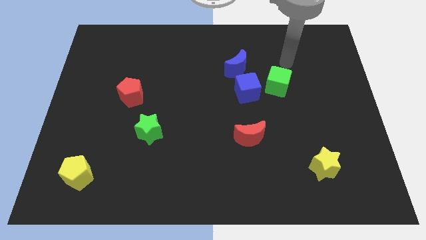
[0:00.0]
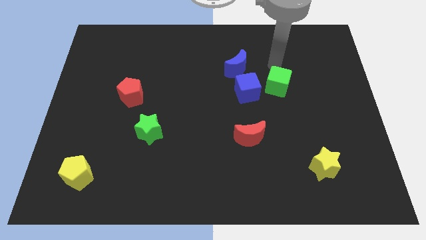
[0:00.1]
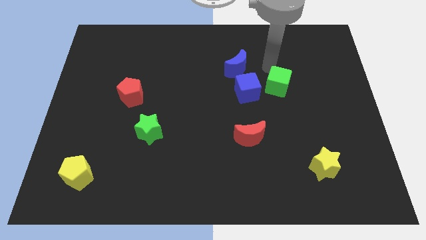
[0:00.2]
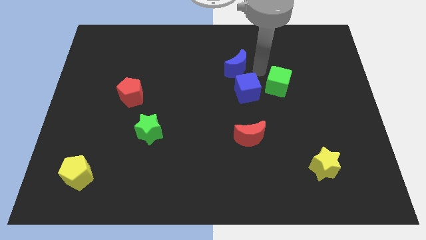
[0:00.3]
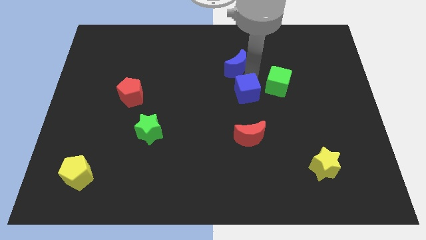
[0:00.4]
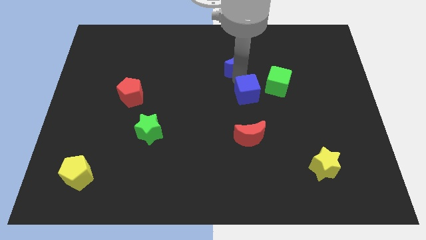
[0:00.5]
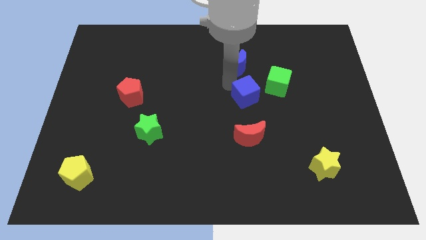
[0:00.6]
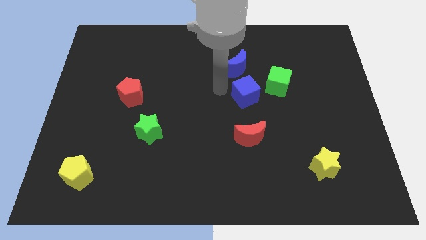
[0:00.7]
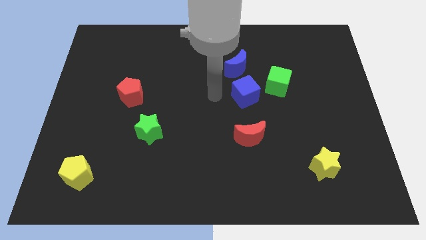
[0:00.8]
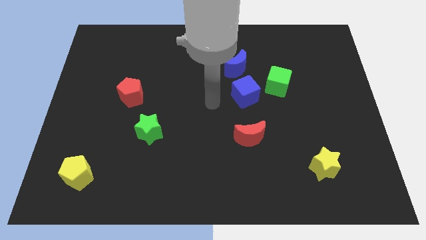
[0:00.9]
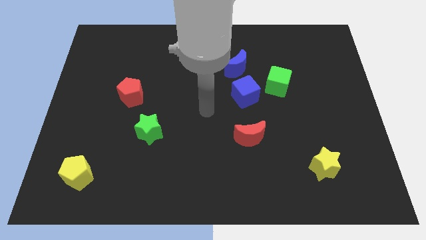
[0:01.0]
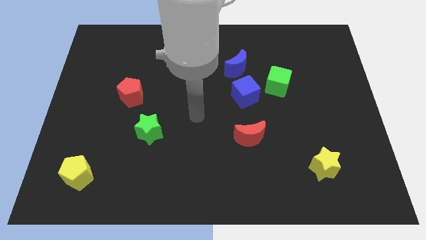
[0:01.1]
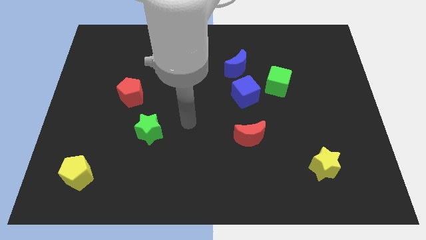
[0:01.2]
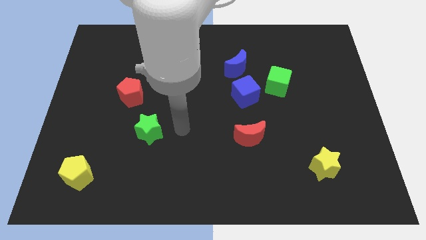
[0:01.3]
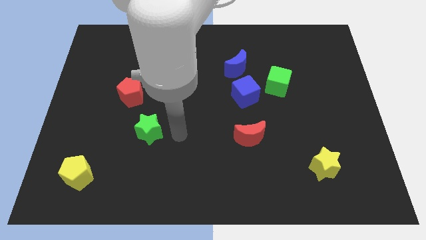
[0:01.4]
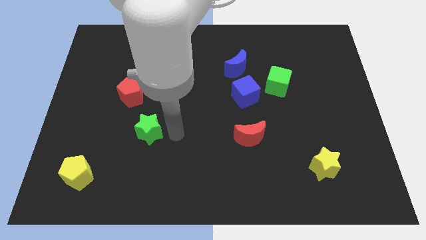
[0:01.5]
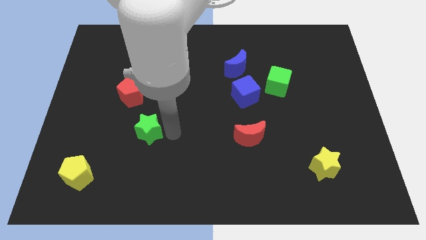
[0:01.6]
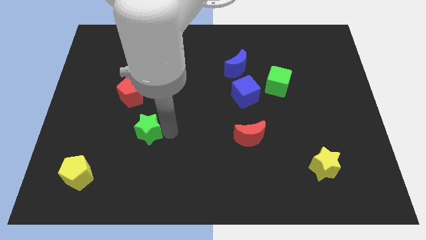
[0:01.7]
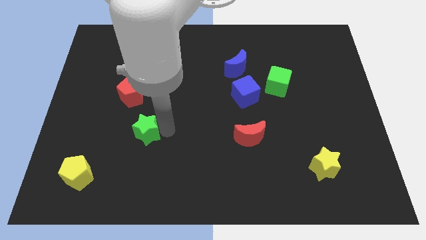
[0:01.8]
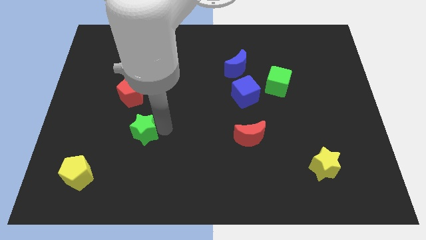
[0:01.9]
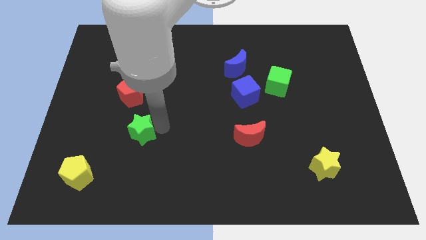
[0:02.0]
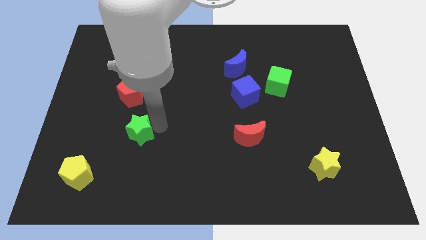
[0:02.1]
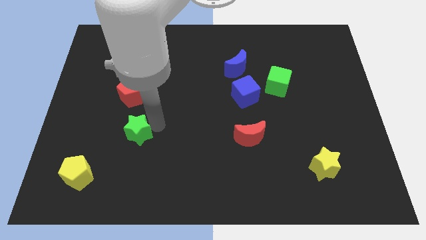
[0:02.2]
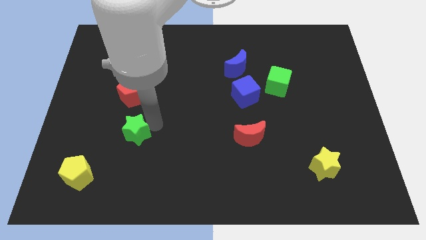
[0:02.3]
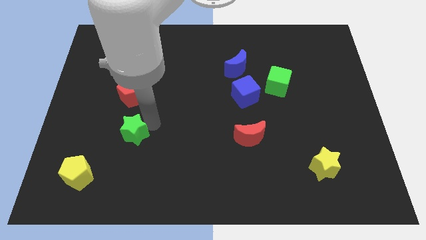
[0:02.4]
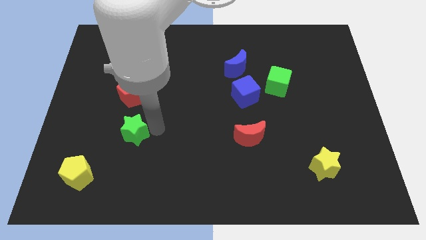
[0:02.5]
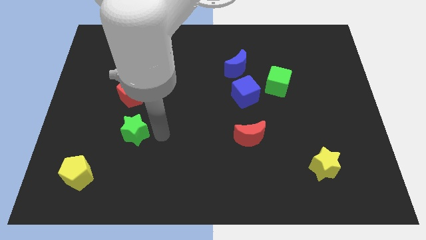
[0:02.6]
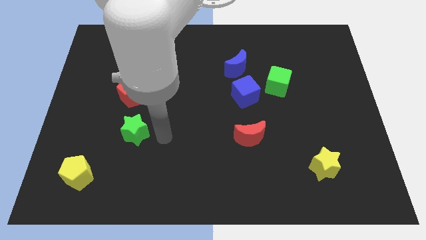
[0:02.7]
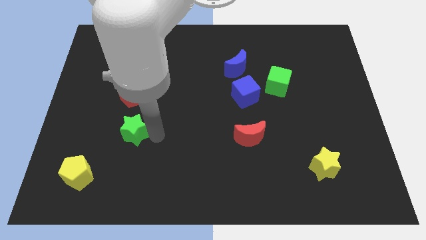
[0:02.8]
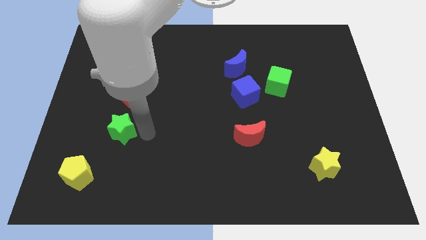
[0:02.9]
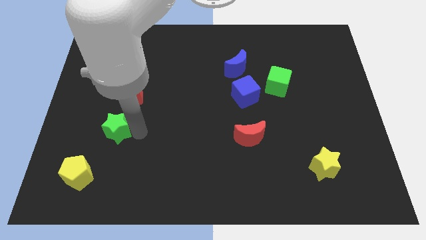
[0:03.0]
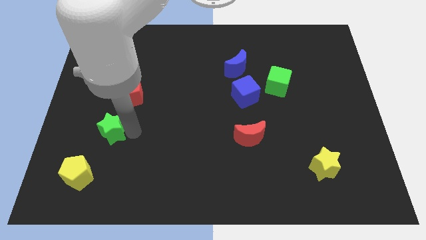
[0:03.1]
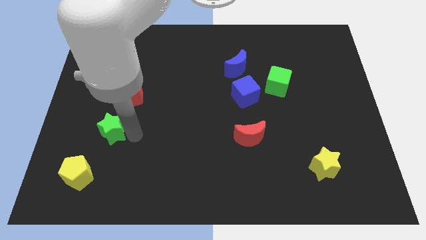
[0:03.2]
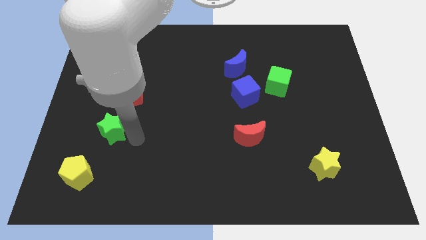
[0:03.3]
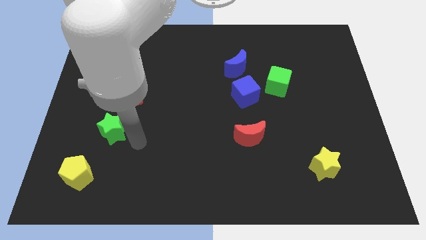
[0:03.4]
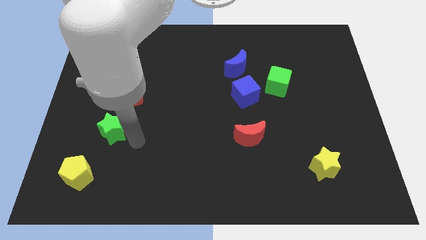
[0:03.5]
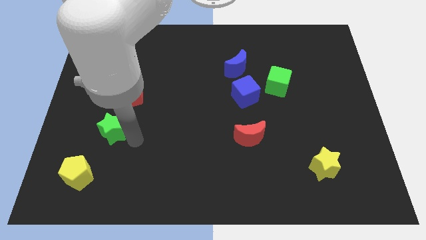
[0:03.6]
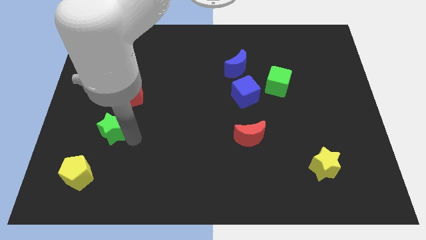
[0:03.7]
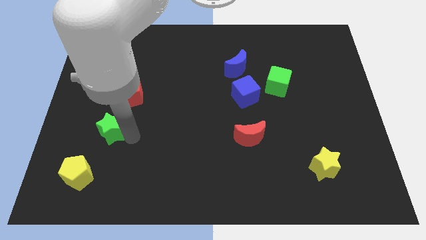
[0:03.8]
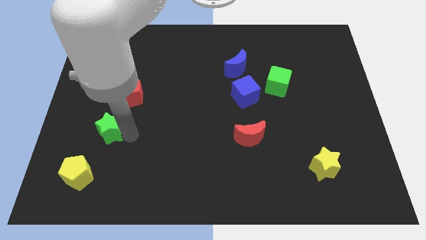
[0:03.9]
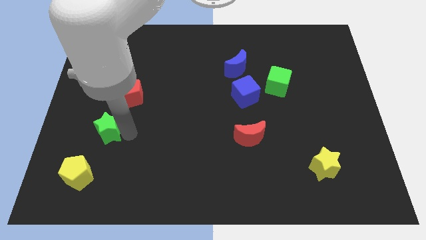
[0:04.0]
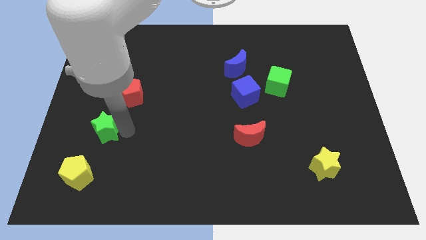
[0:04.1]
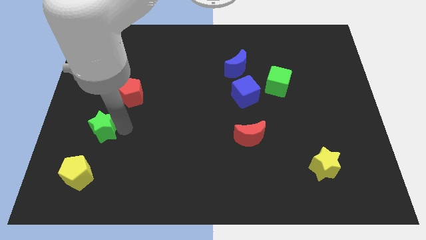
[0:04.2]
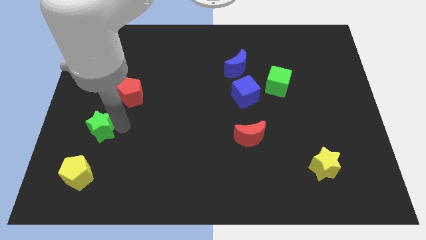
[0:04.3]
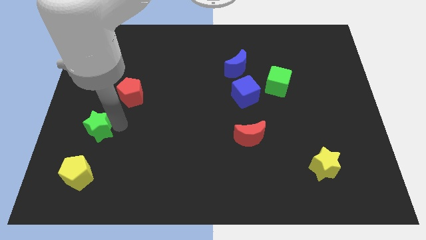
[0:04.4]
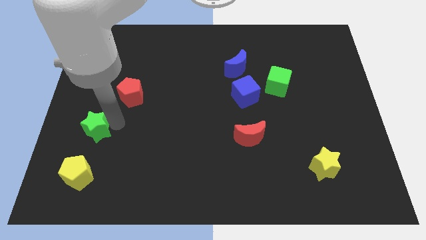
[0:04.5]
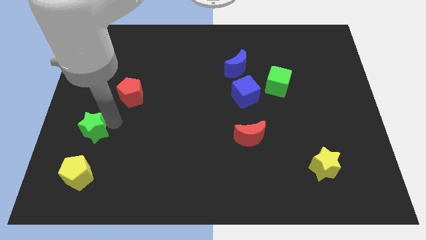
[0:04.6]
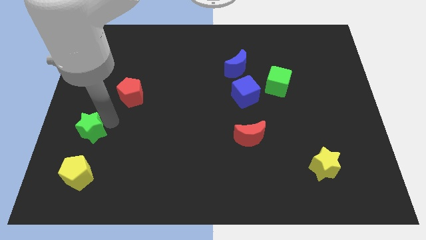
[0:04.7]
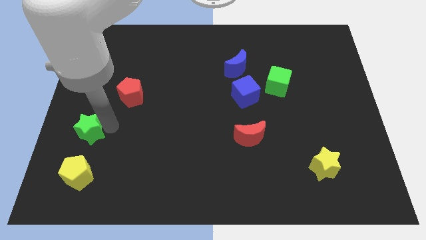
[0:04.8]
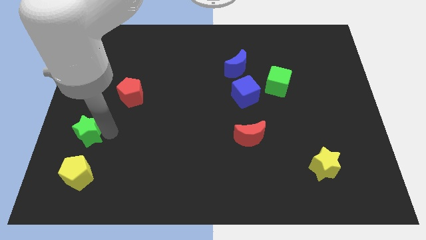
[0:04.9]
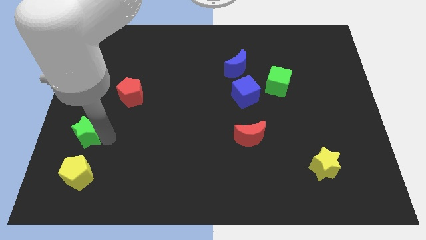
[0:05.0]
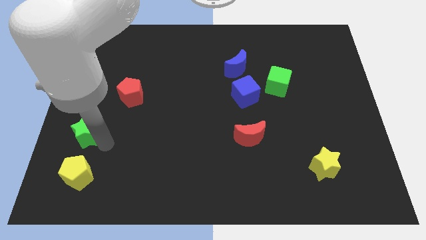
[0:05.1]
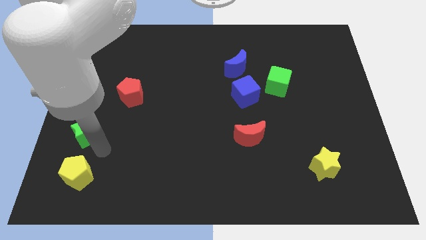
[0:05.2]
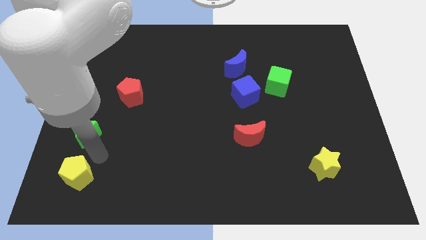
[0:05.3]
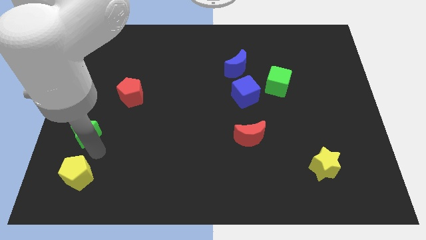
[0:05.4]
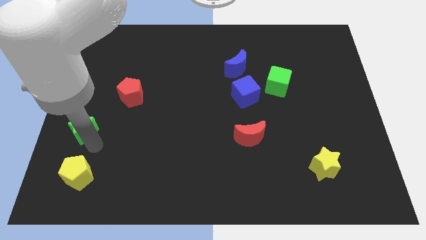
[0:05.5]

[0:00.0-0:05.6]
move the green star to the left side of the board
